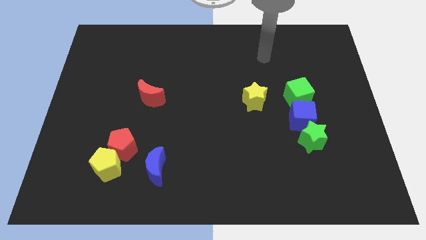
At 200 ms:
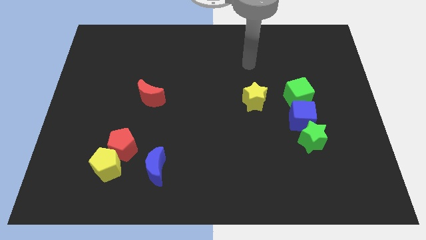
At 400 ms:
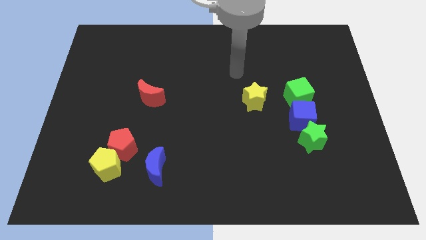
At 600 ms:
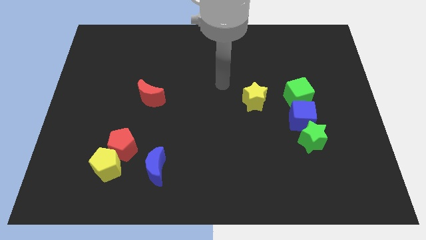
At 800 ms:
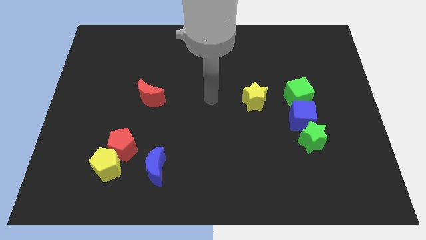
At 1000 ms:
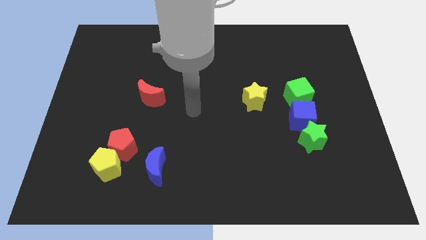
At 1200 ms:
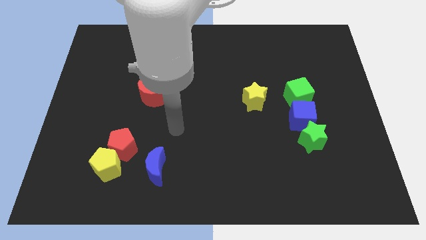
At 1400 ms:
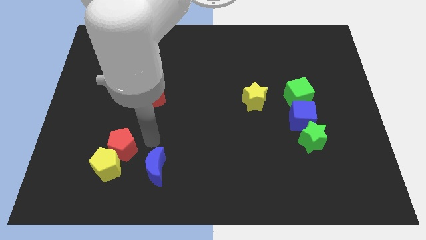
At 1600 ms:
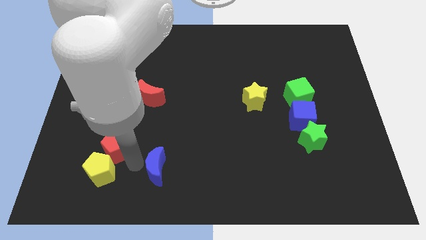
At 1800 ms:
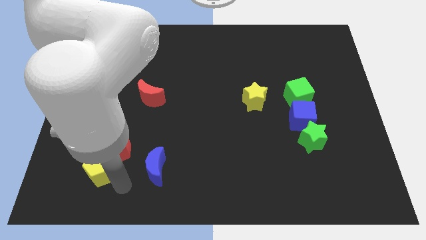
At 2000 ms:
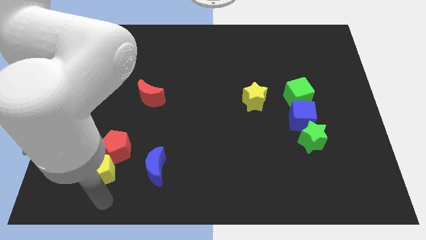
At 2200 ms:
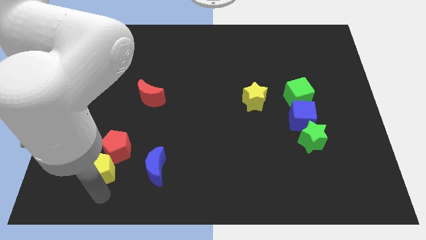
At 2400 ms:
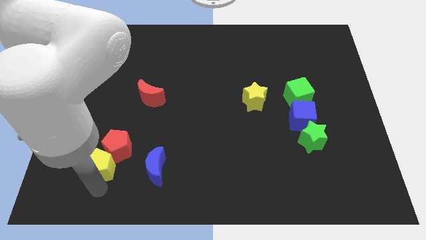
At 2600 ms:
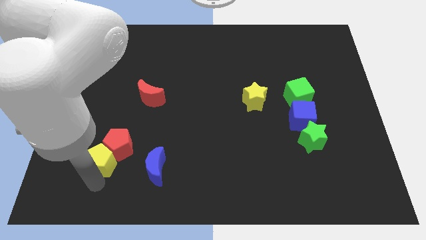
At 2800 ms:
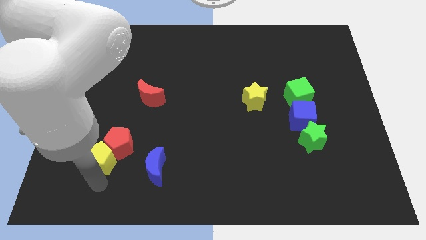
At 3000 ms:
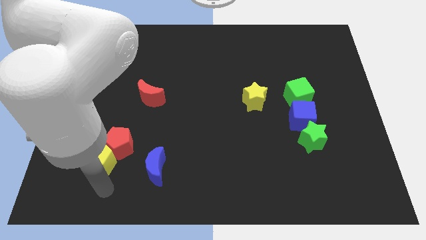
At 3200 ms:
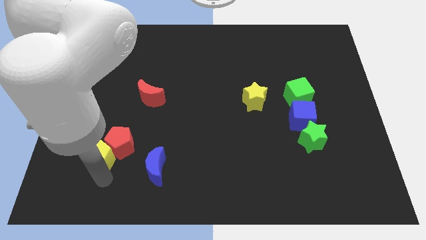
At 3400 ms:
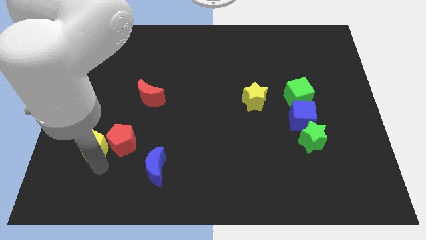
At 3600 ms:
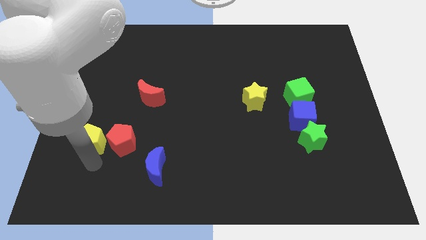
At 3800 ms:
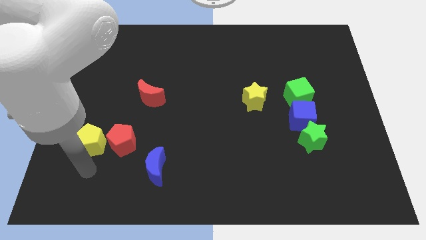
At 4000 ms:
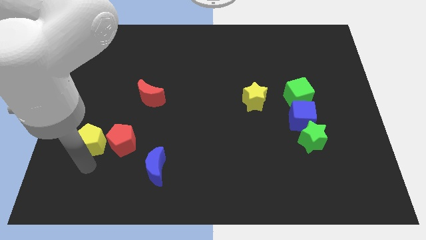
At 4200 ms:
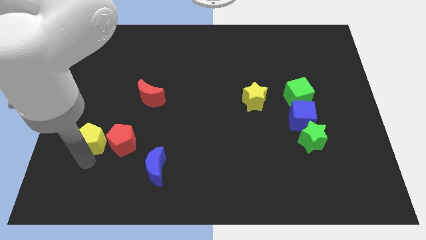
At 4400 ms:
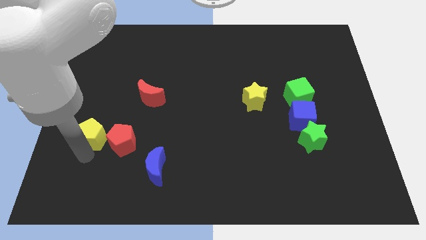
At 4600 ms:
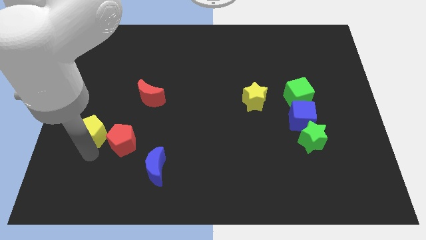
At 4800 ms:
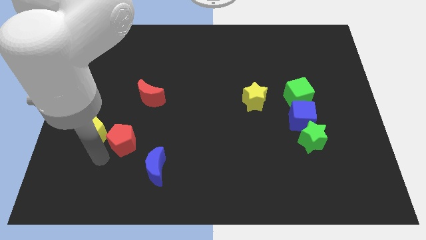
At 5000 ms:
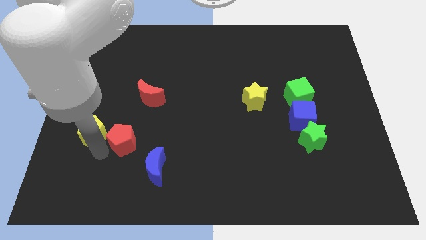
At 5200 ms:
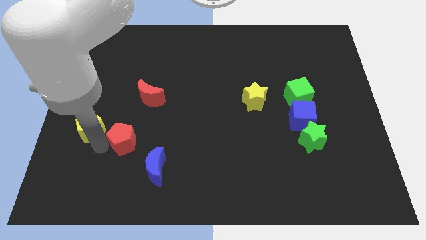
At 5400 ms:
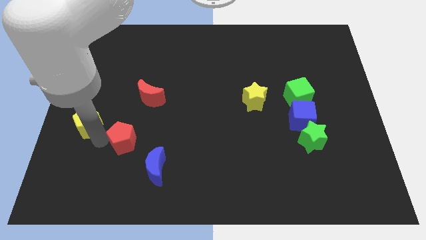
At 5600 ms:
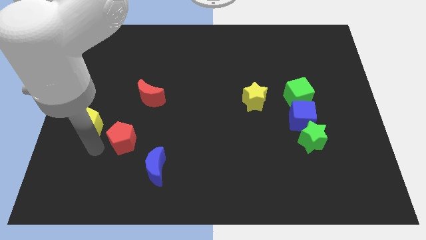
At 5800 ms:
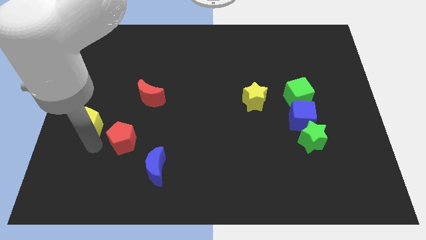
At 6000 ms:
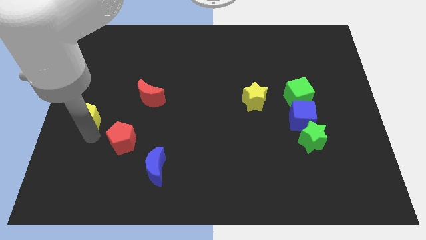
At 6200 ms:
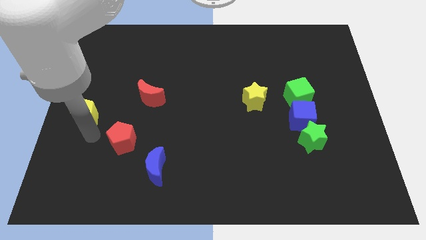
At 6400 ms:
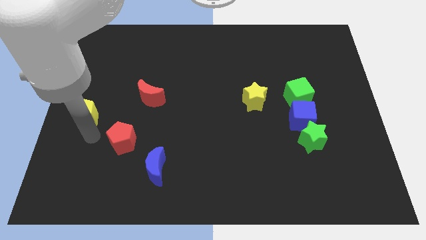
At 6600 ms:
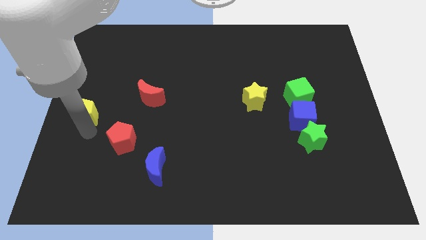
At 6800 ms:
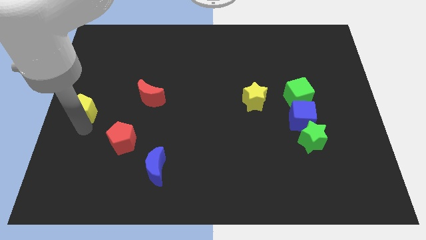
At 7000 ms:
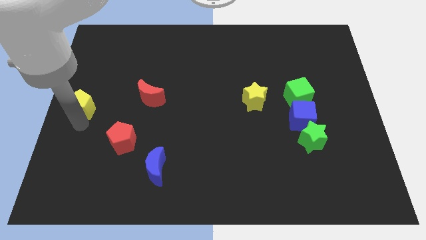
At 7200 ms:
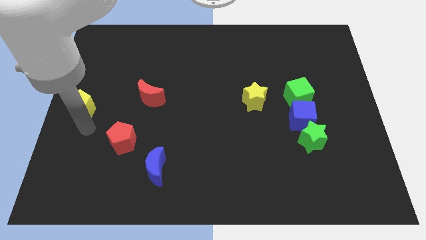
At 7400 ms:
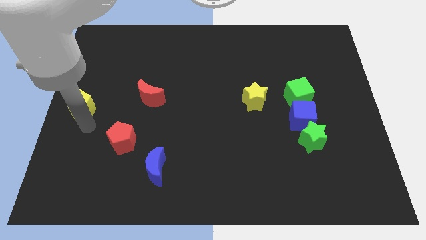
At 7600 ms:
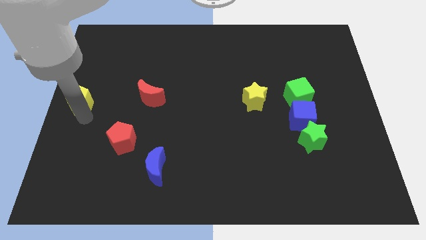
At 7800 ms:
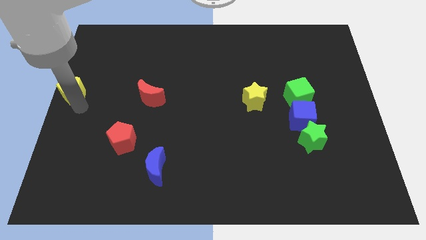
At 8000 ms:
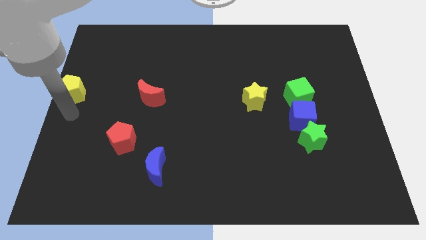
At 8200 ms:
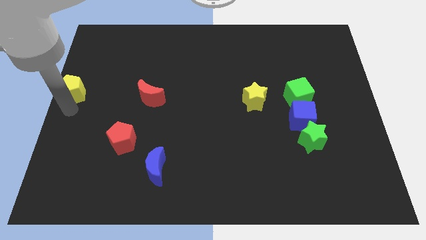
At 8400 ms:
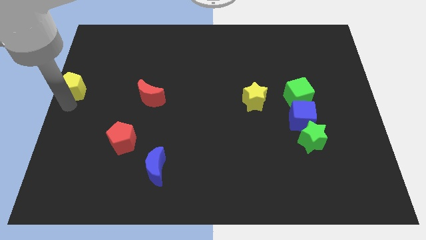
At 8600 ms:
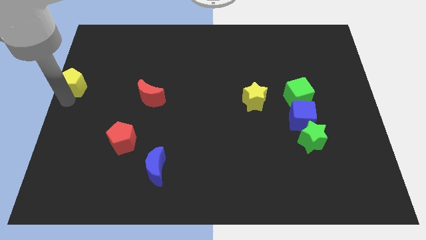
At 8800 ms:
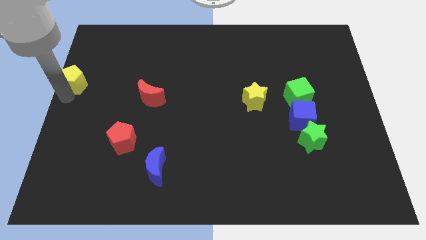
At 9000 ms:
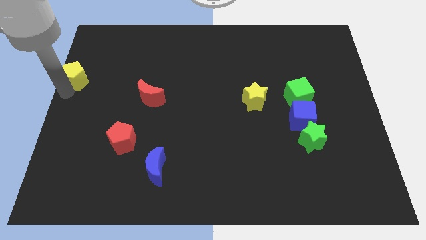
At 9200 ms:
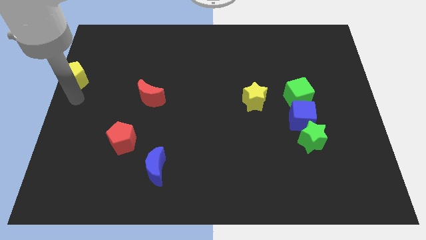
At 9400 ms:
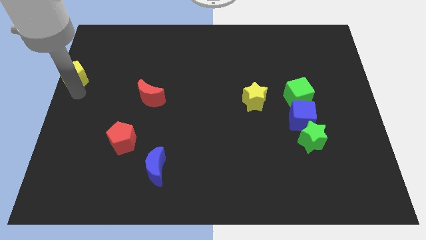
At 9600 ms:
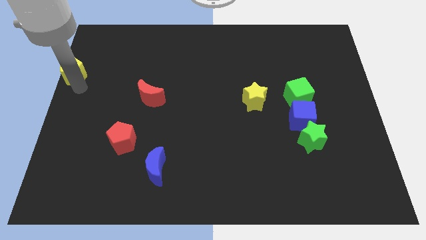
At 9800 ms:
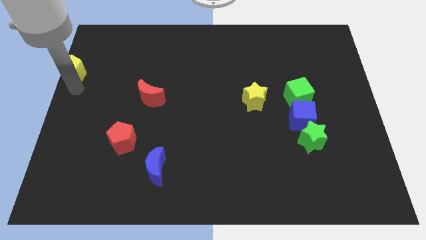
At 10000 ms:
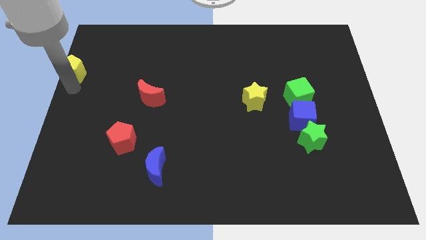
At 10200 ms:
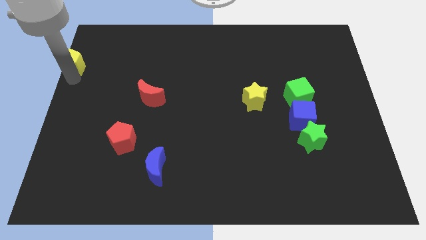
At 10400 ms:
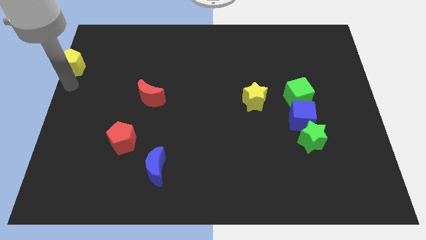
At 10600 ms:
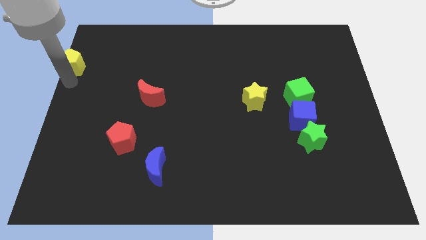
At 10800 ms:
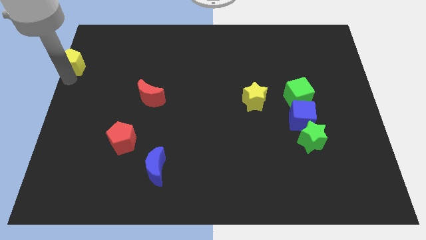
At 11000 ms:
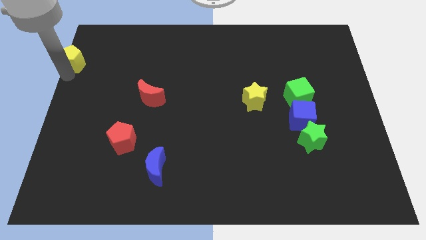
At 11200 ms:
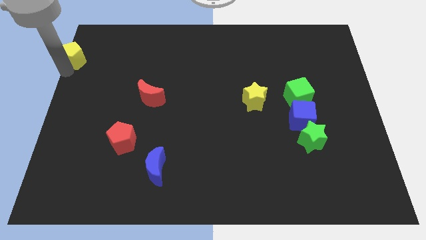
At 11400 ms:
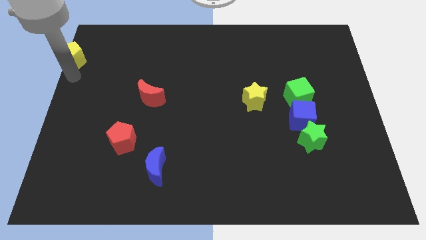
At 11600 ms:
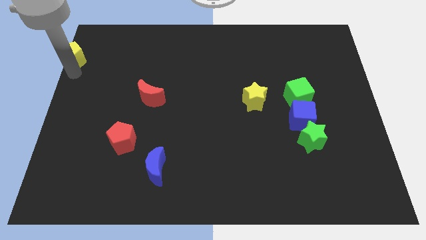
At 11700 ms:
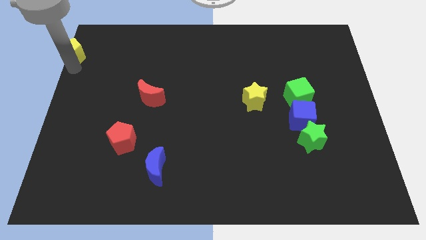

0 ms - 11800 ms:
move the yellow pentagon to the top left of the board

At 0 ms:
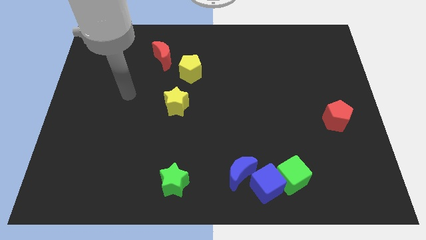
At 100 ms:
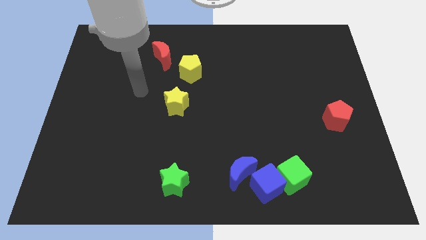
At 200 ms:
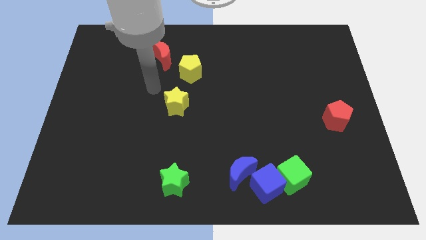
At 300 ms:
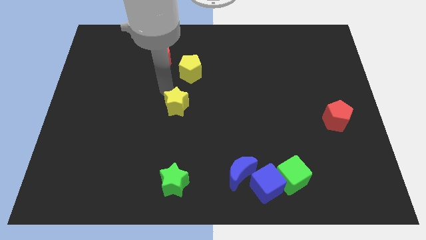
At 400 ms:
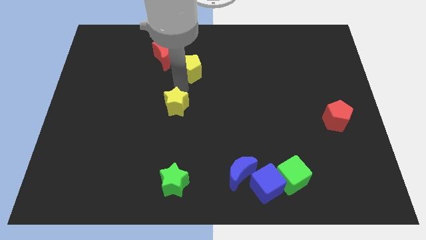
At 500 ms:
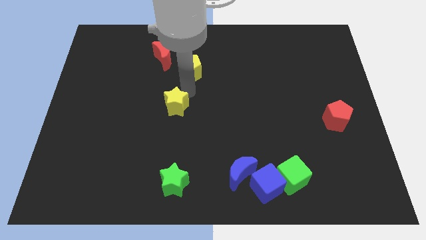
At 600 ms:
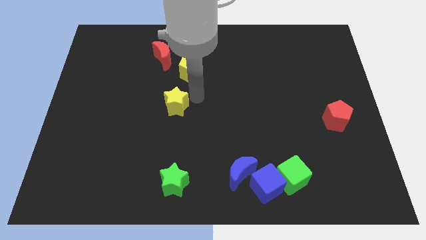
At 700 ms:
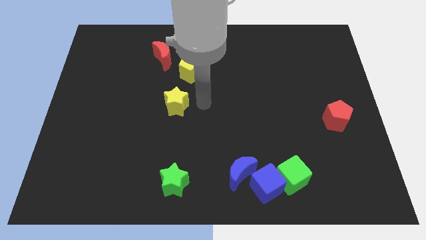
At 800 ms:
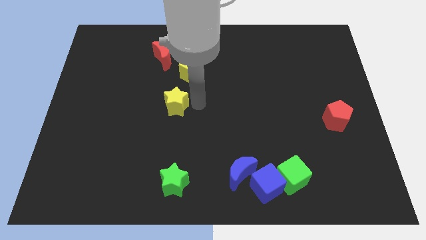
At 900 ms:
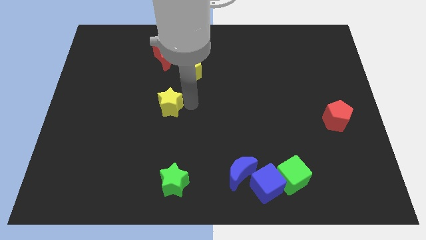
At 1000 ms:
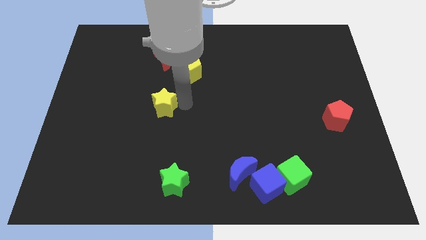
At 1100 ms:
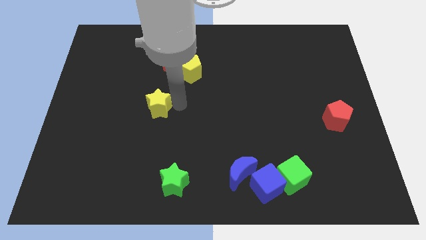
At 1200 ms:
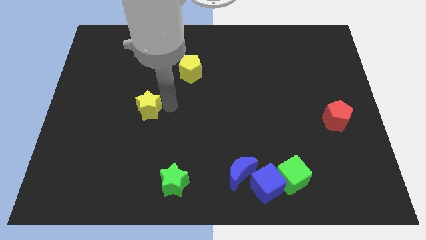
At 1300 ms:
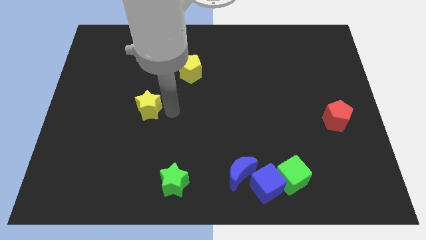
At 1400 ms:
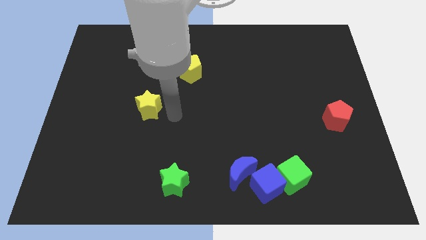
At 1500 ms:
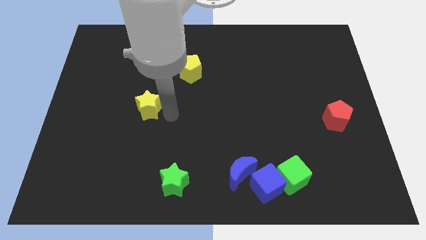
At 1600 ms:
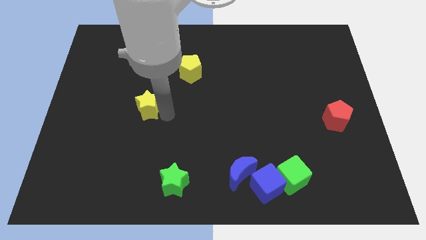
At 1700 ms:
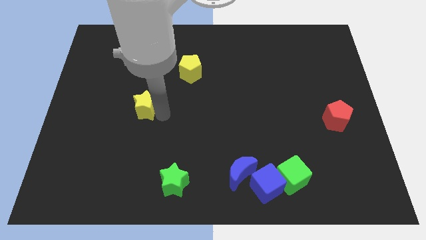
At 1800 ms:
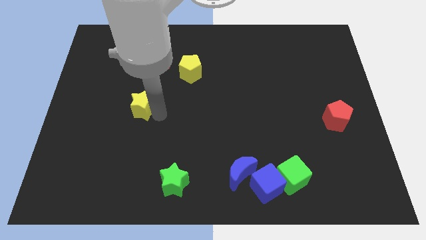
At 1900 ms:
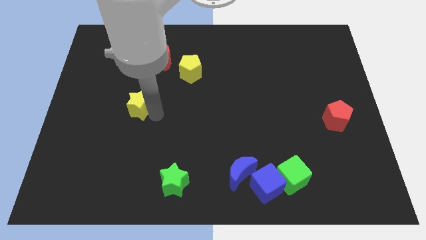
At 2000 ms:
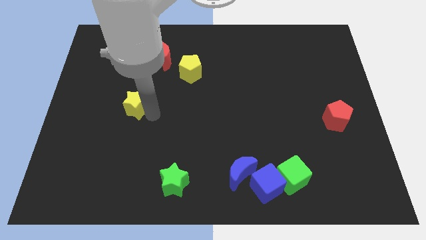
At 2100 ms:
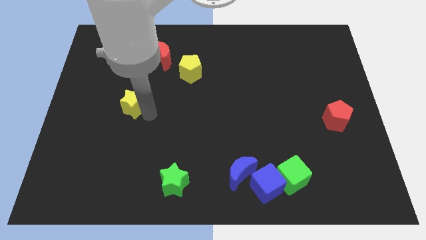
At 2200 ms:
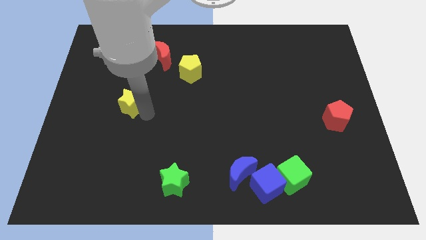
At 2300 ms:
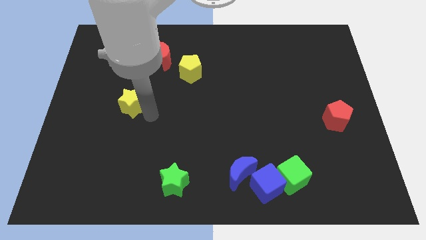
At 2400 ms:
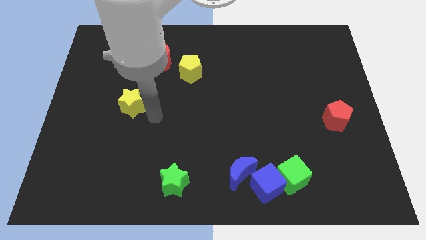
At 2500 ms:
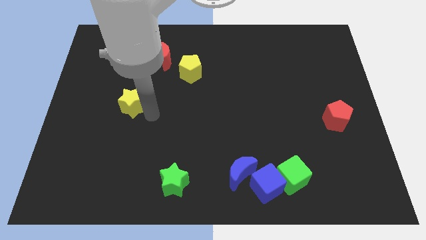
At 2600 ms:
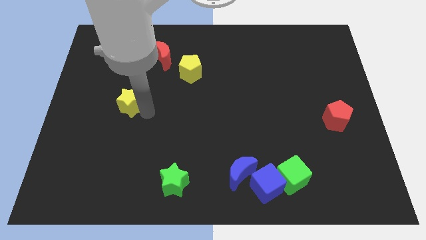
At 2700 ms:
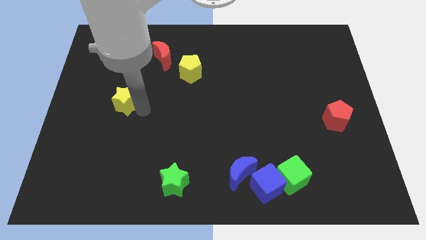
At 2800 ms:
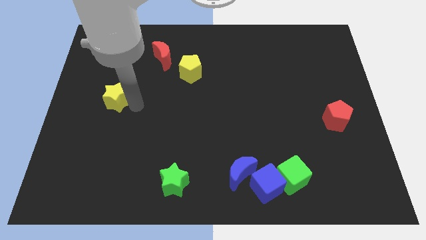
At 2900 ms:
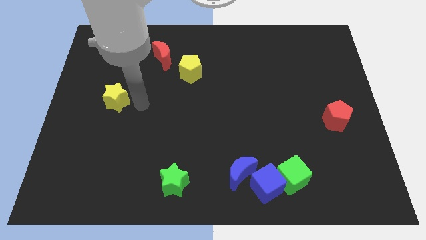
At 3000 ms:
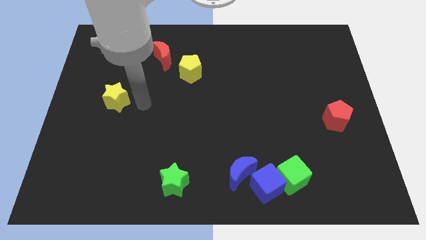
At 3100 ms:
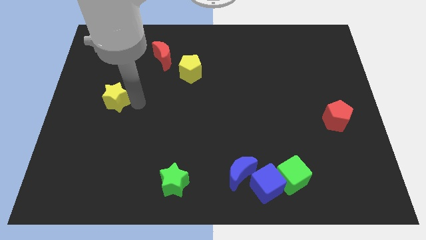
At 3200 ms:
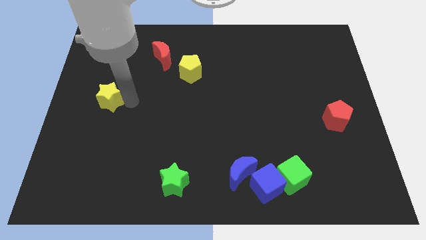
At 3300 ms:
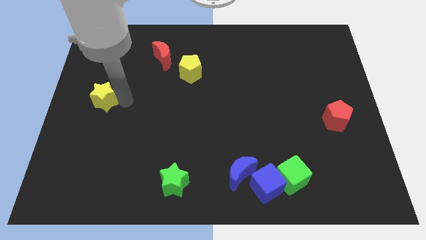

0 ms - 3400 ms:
put the yellow star to the left side
